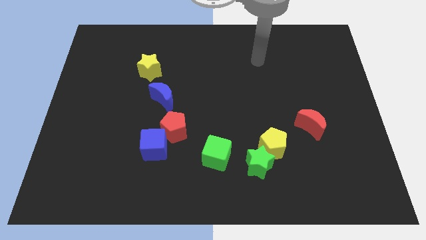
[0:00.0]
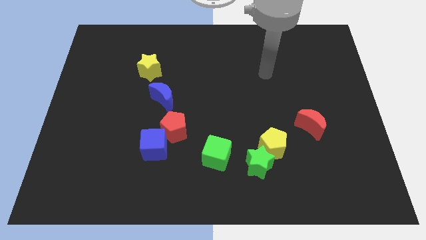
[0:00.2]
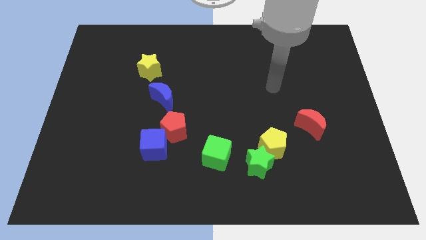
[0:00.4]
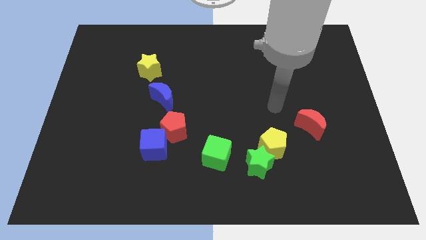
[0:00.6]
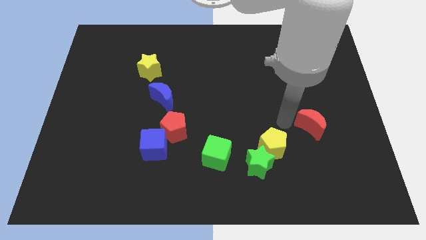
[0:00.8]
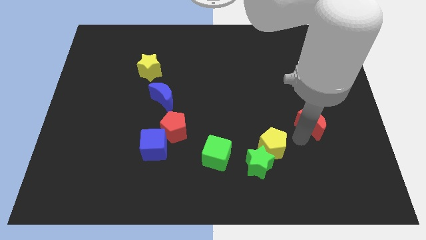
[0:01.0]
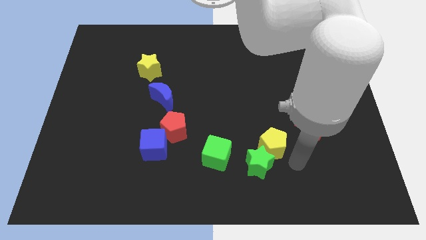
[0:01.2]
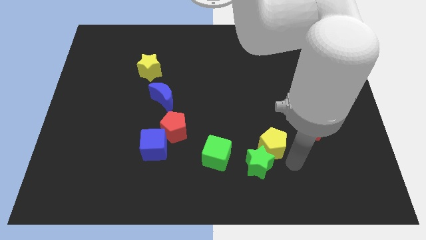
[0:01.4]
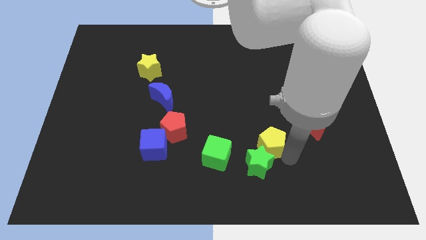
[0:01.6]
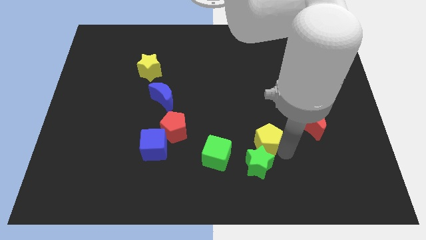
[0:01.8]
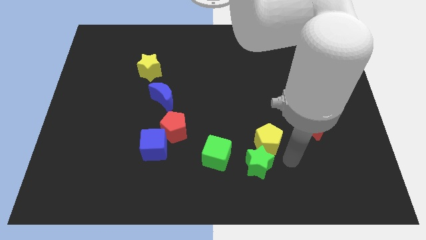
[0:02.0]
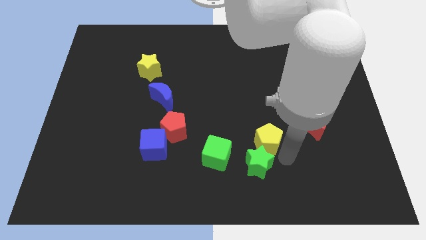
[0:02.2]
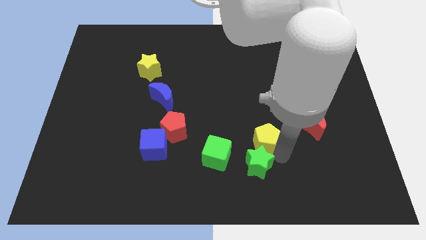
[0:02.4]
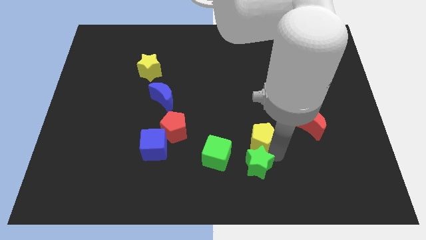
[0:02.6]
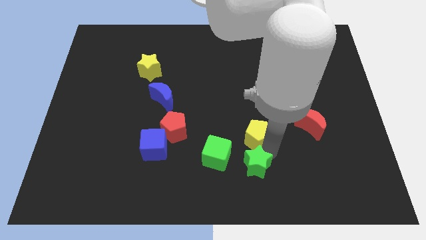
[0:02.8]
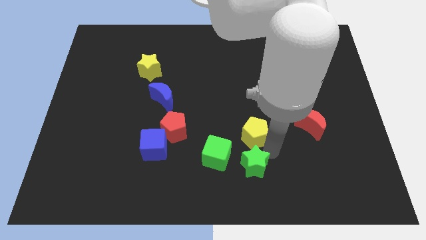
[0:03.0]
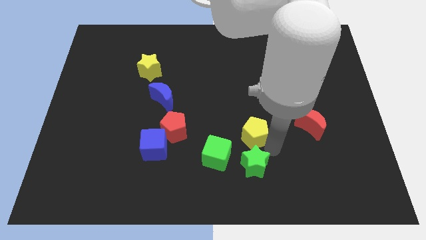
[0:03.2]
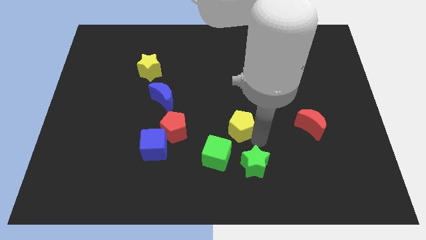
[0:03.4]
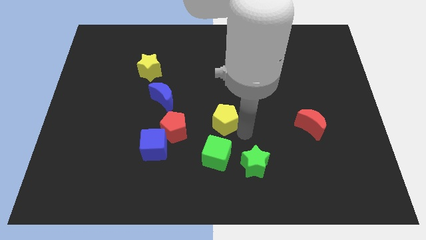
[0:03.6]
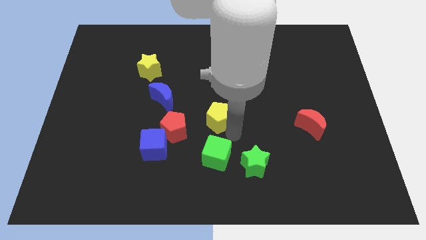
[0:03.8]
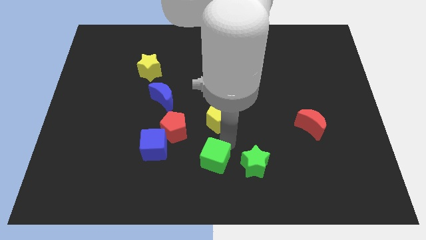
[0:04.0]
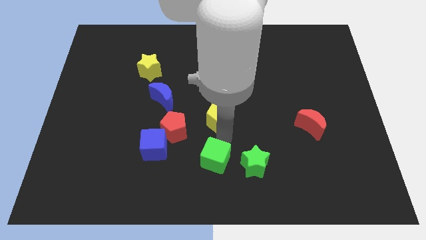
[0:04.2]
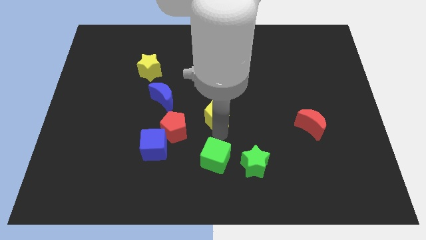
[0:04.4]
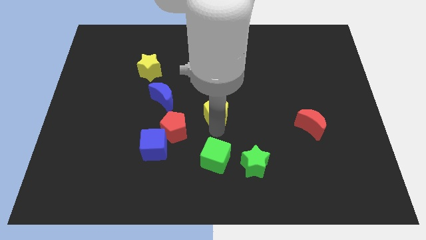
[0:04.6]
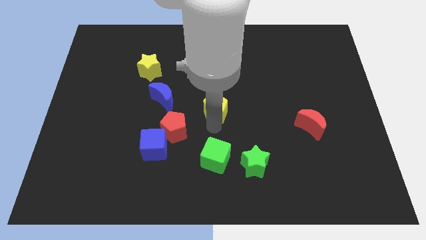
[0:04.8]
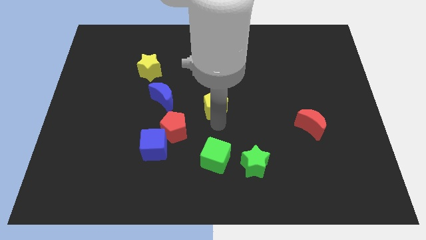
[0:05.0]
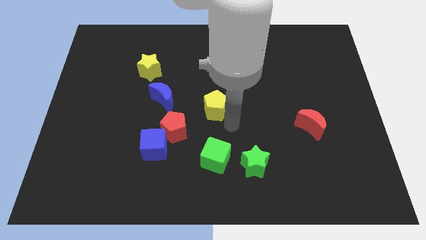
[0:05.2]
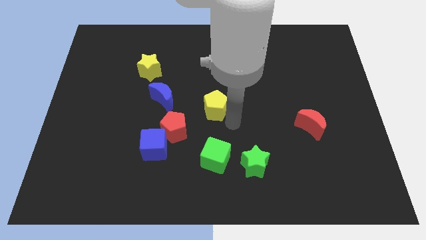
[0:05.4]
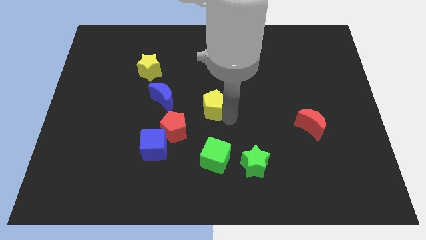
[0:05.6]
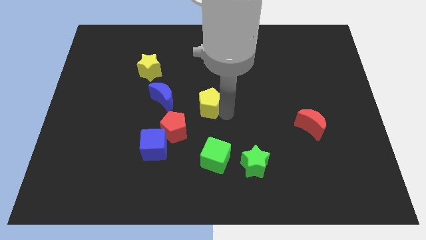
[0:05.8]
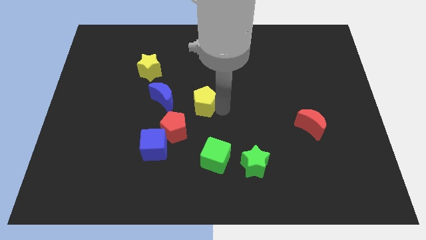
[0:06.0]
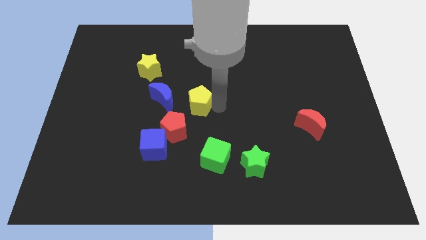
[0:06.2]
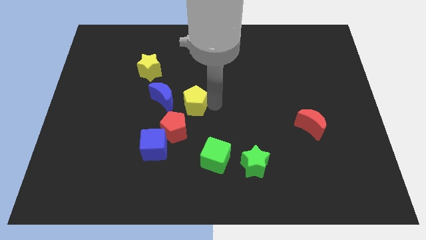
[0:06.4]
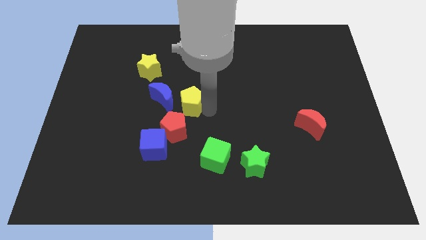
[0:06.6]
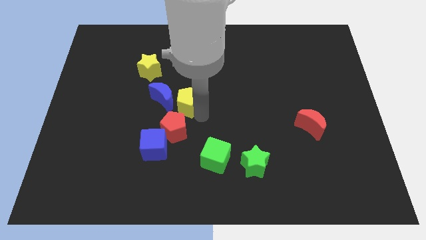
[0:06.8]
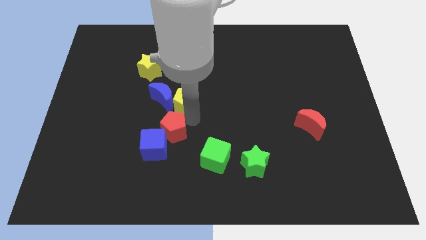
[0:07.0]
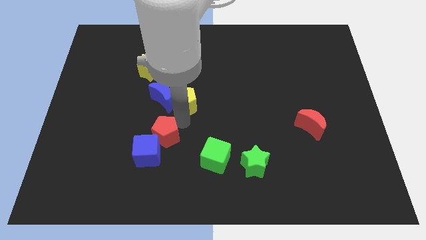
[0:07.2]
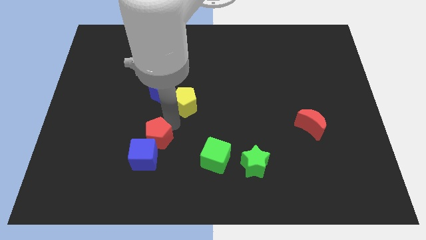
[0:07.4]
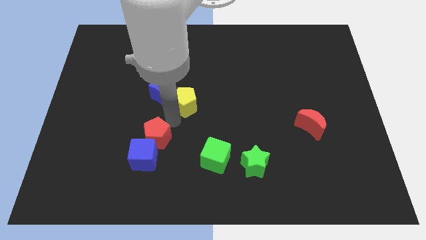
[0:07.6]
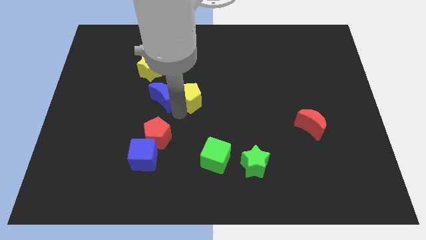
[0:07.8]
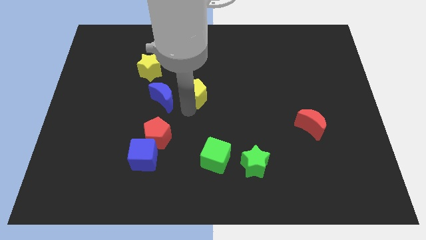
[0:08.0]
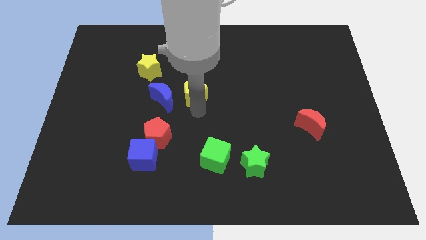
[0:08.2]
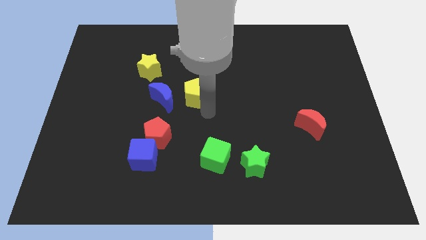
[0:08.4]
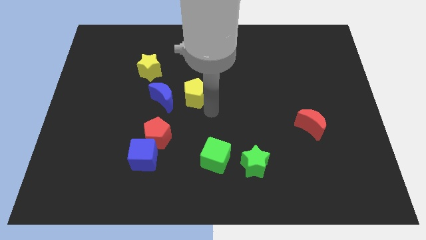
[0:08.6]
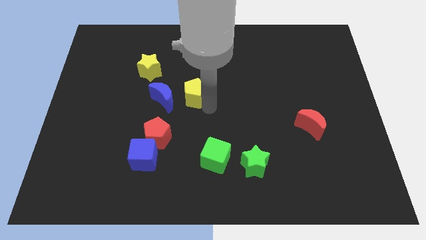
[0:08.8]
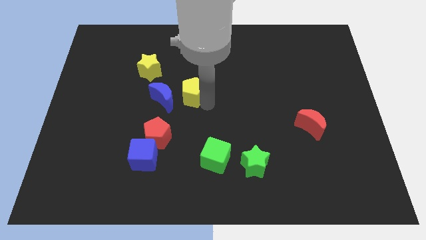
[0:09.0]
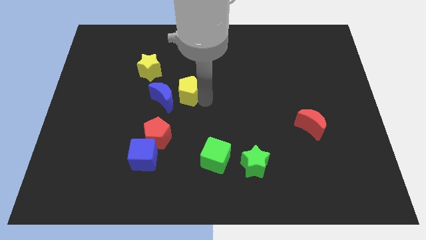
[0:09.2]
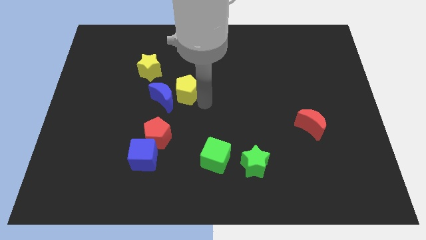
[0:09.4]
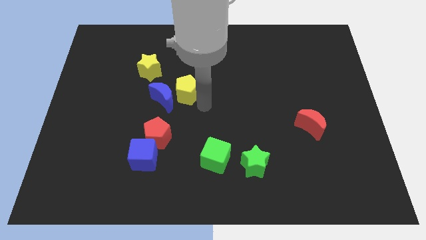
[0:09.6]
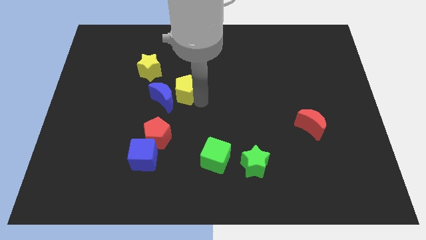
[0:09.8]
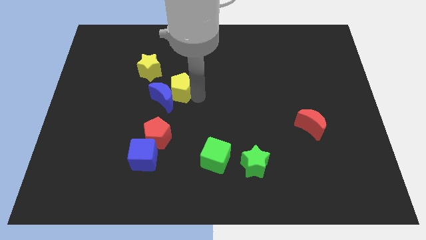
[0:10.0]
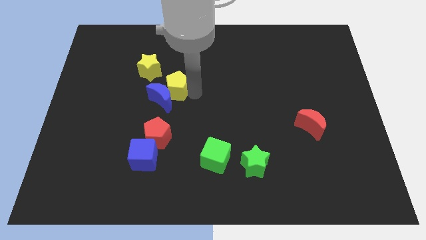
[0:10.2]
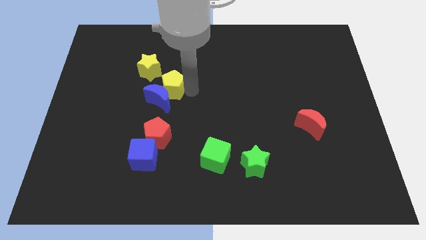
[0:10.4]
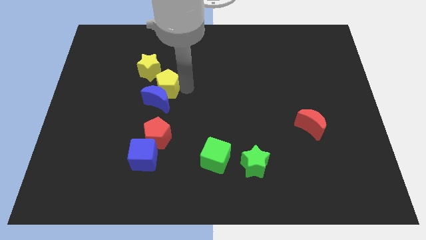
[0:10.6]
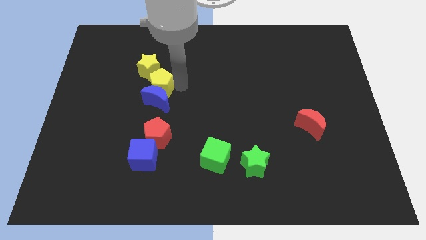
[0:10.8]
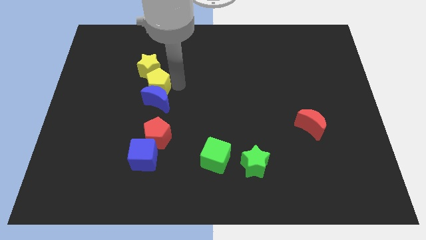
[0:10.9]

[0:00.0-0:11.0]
put the yellow pentagon towards the yellow star

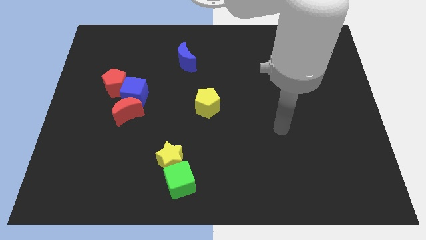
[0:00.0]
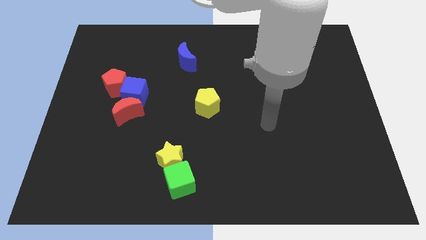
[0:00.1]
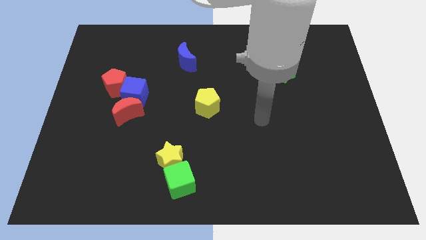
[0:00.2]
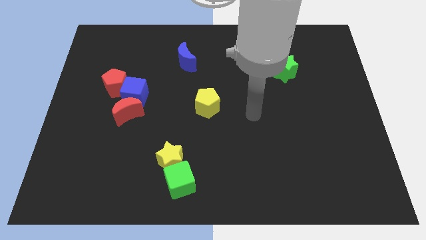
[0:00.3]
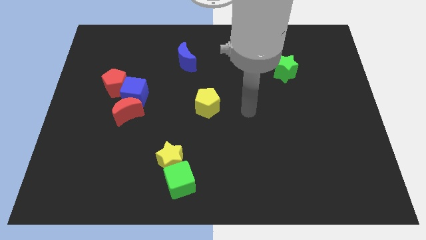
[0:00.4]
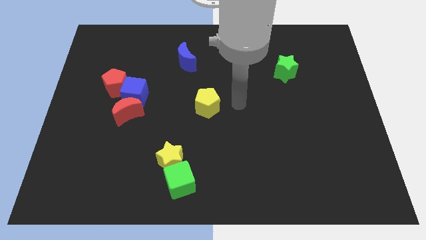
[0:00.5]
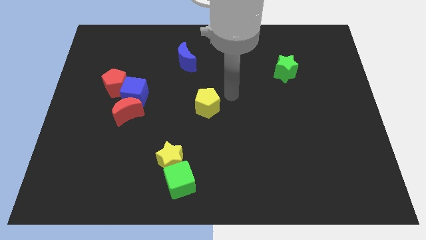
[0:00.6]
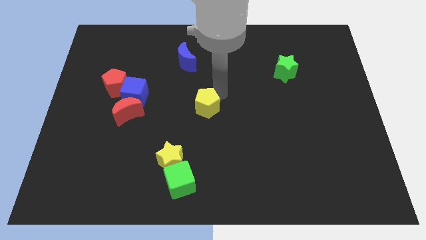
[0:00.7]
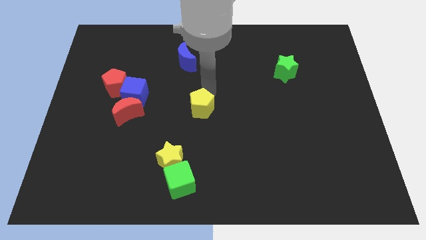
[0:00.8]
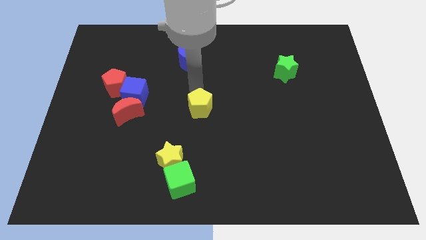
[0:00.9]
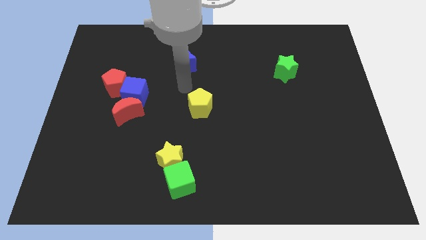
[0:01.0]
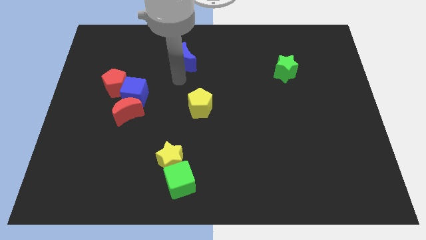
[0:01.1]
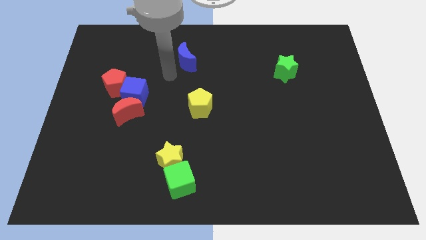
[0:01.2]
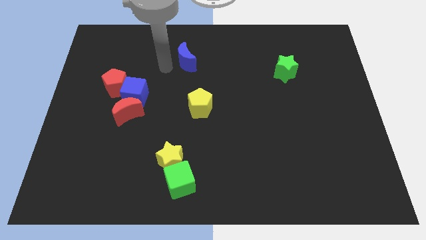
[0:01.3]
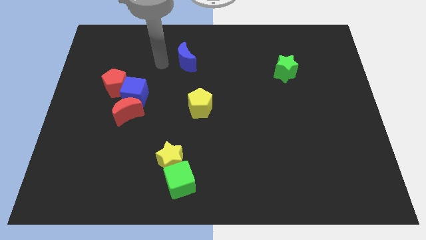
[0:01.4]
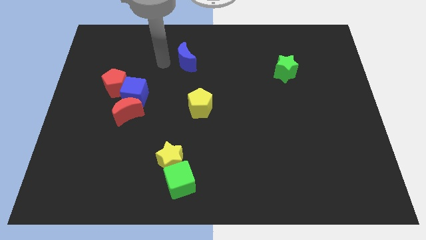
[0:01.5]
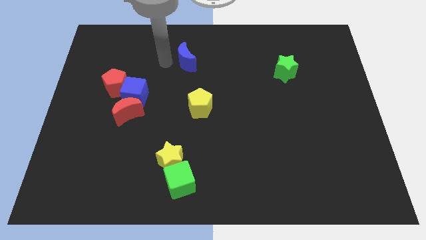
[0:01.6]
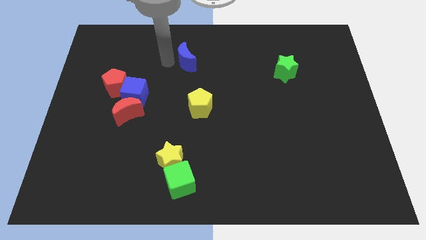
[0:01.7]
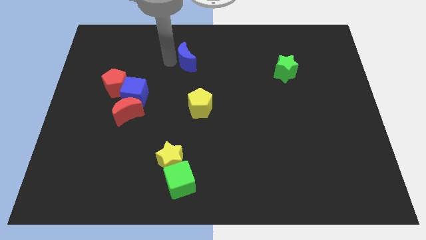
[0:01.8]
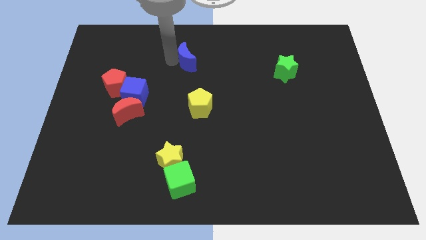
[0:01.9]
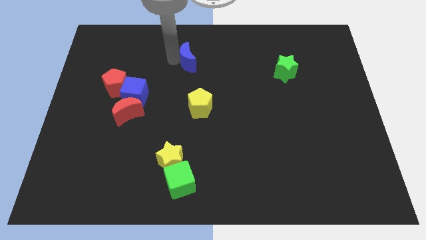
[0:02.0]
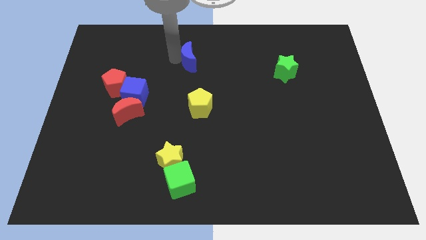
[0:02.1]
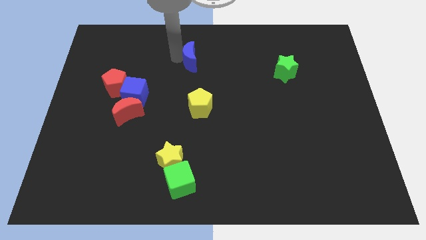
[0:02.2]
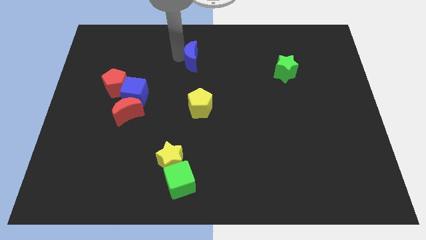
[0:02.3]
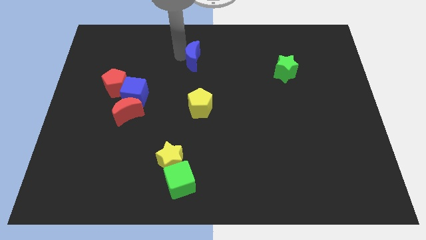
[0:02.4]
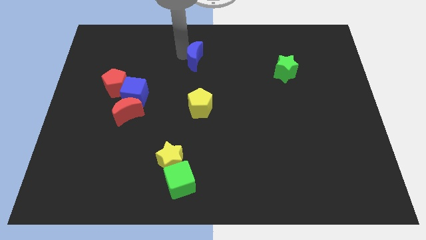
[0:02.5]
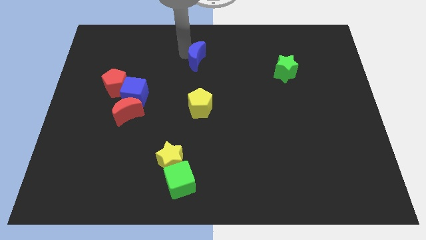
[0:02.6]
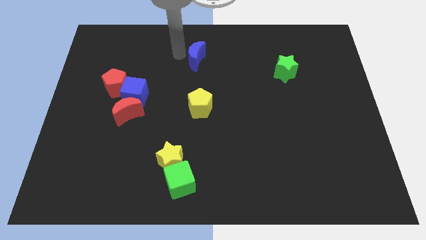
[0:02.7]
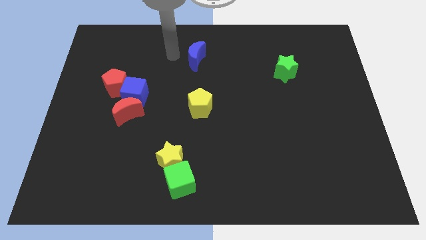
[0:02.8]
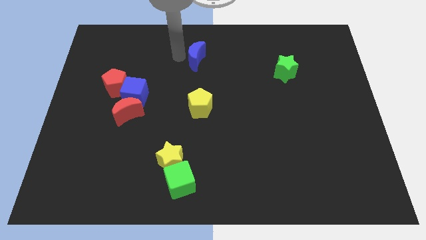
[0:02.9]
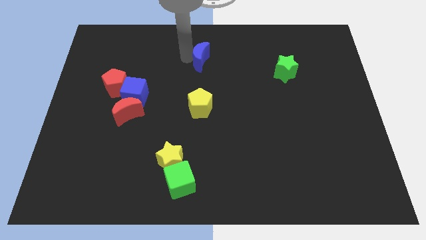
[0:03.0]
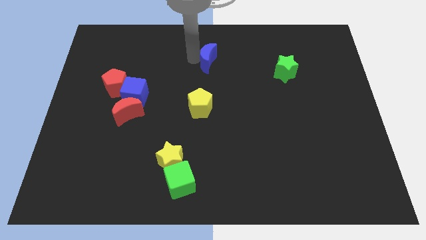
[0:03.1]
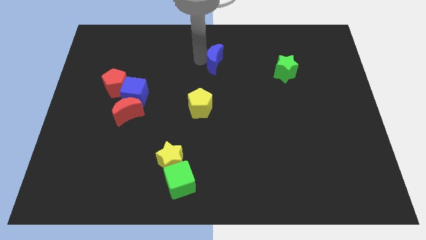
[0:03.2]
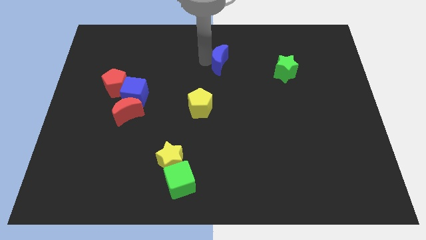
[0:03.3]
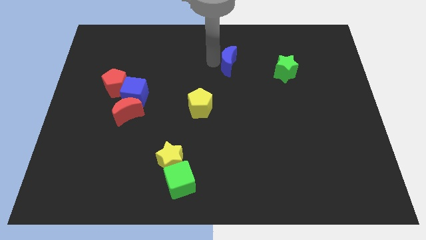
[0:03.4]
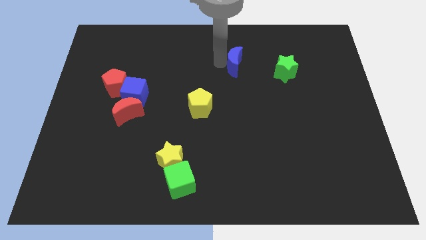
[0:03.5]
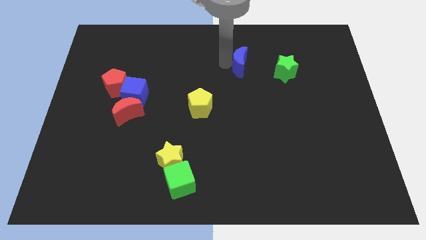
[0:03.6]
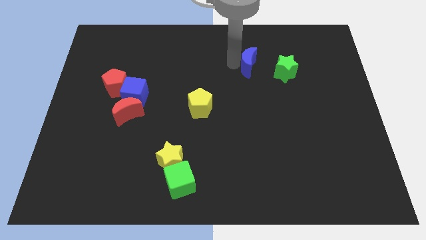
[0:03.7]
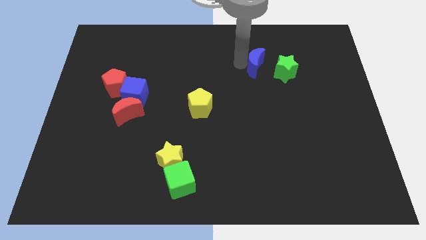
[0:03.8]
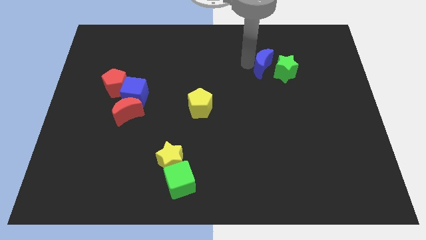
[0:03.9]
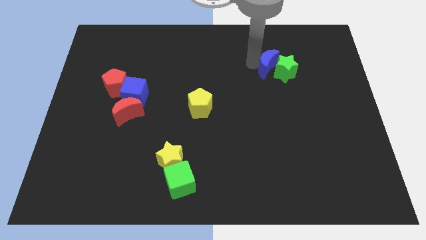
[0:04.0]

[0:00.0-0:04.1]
move the blue moon next to the green star
